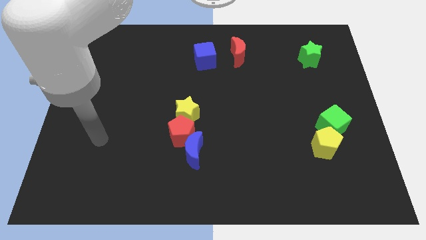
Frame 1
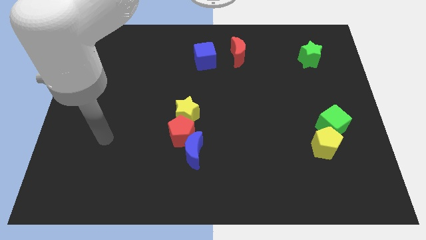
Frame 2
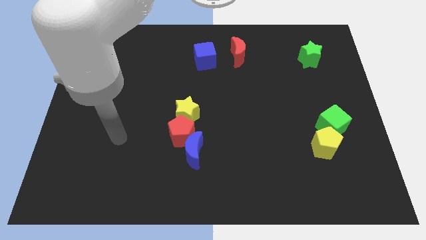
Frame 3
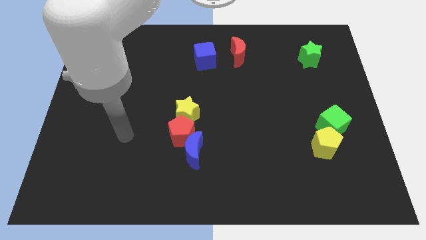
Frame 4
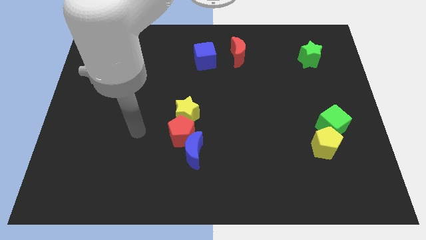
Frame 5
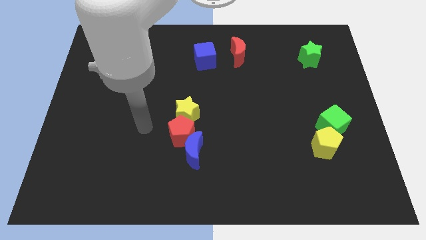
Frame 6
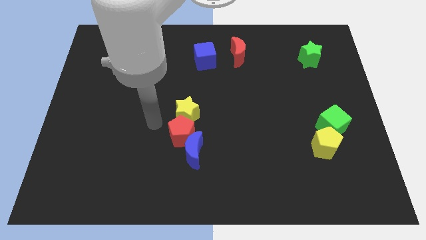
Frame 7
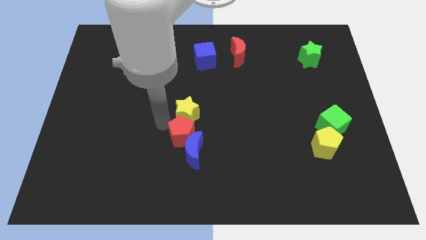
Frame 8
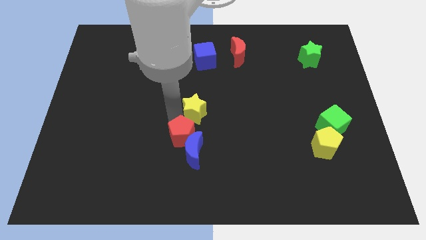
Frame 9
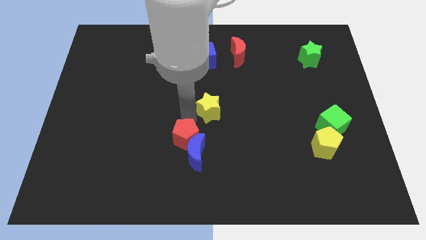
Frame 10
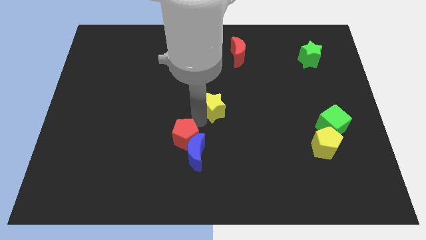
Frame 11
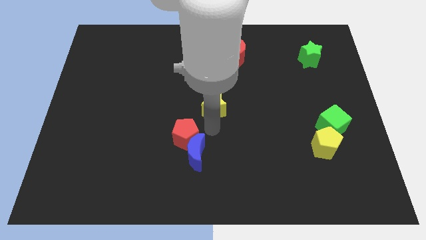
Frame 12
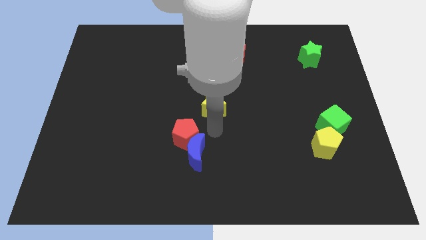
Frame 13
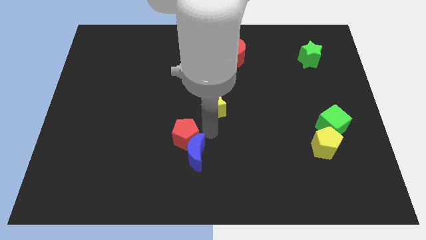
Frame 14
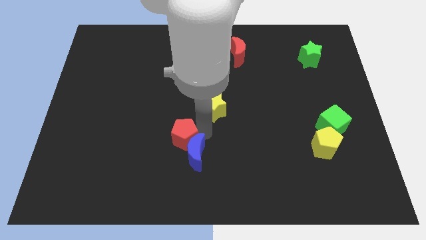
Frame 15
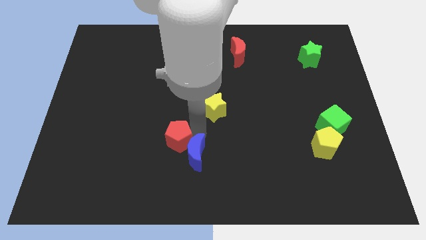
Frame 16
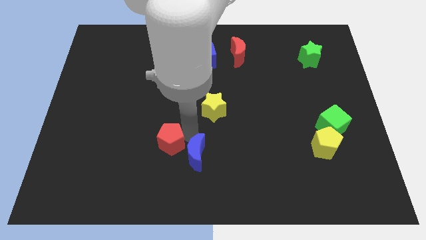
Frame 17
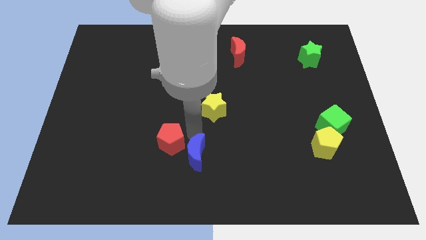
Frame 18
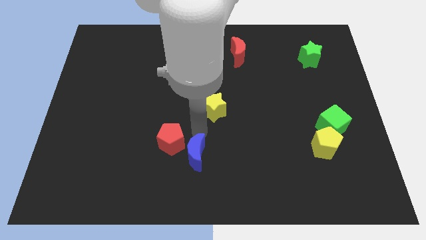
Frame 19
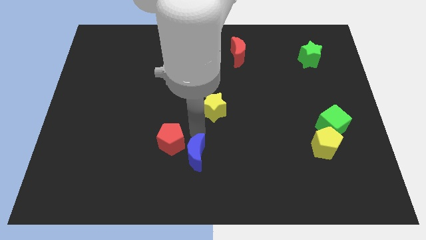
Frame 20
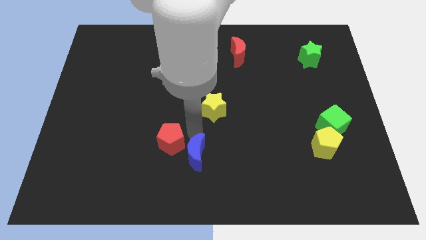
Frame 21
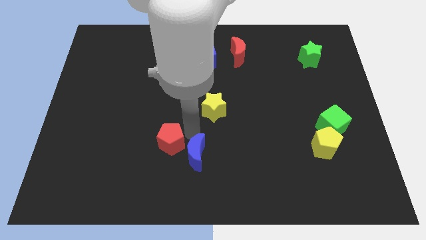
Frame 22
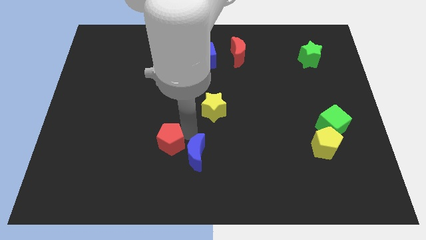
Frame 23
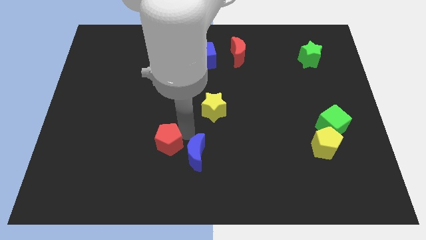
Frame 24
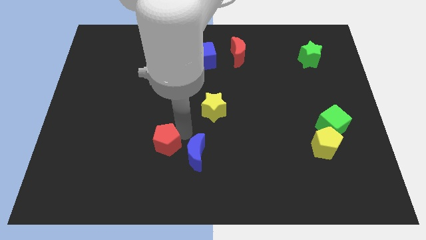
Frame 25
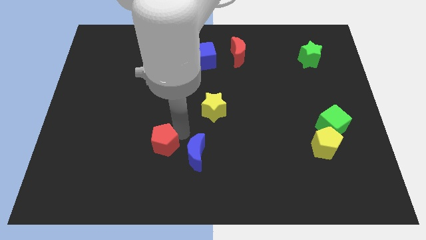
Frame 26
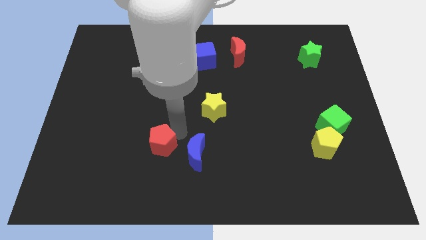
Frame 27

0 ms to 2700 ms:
move the red pentagon away from the yellow star and blue moon

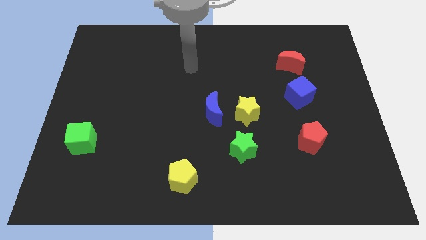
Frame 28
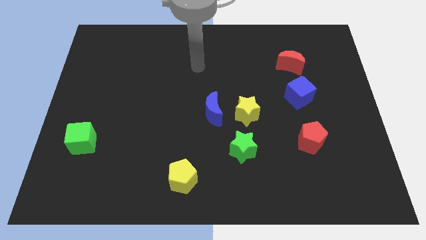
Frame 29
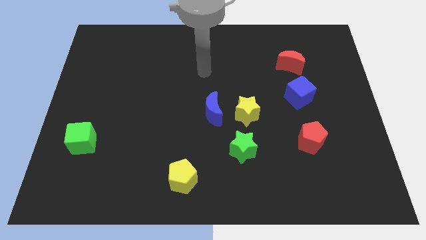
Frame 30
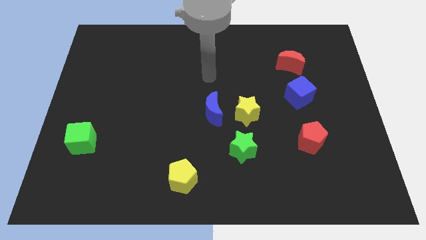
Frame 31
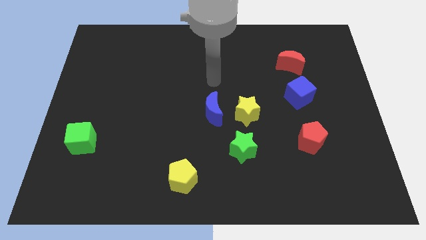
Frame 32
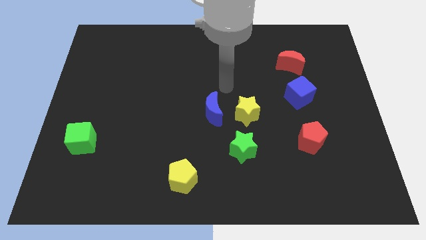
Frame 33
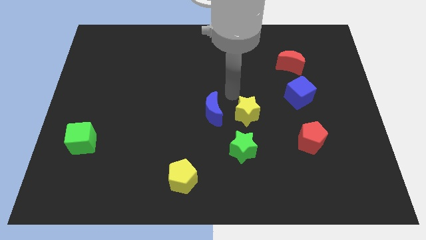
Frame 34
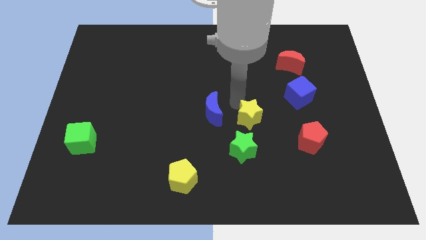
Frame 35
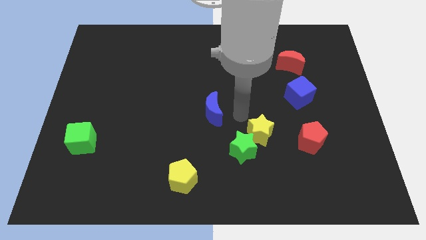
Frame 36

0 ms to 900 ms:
move the blue moon away from the yellow star

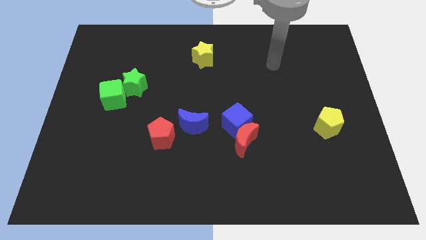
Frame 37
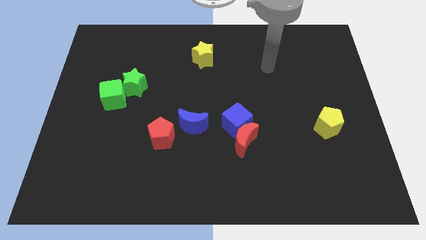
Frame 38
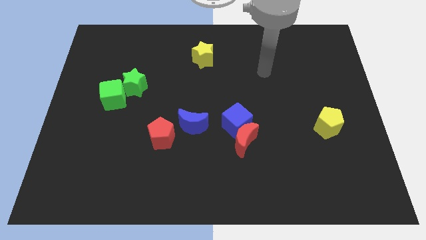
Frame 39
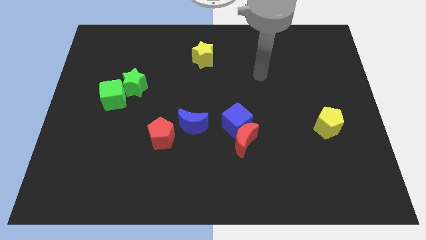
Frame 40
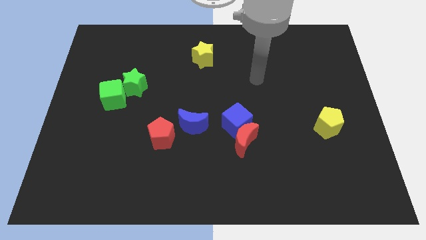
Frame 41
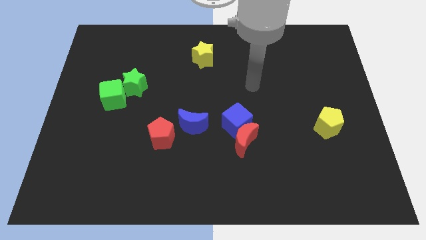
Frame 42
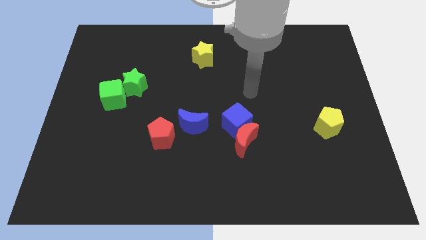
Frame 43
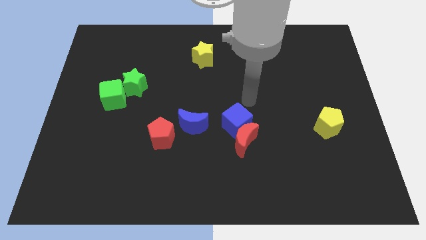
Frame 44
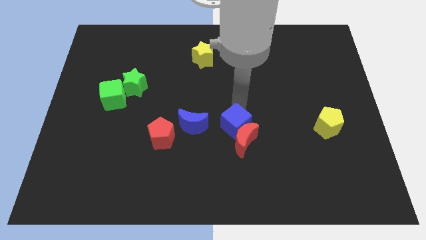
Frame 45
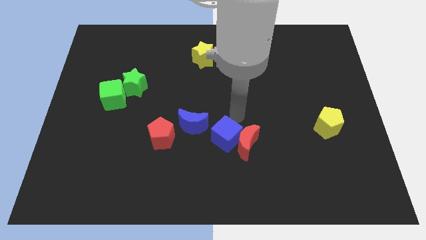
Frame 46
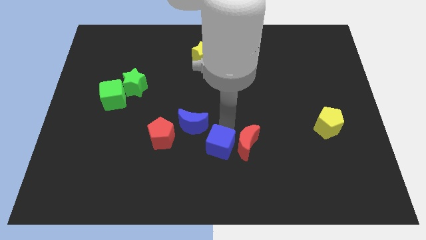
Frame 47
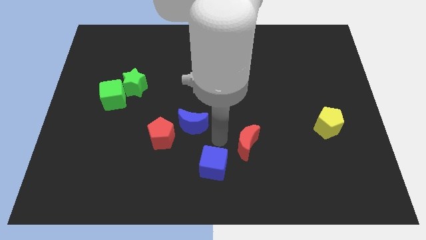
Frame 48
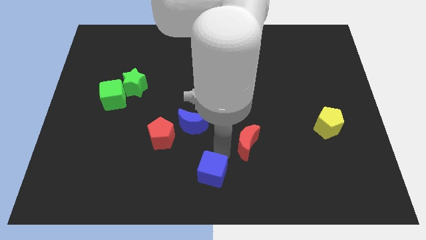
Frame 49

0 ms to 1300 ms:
move the red moon away from the blue cube

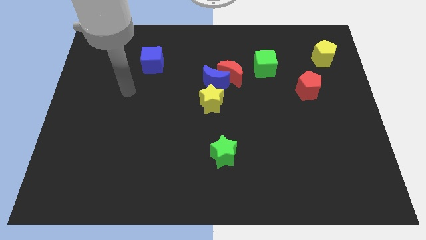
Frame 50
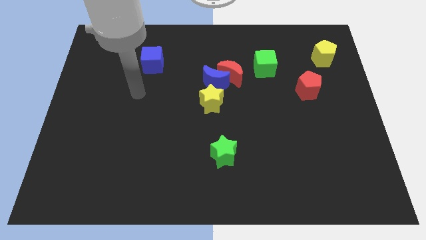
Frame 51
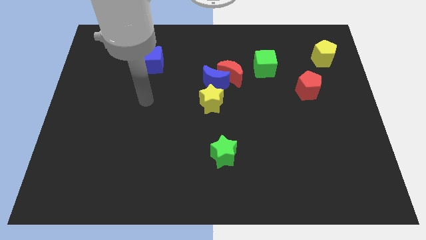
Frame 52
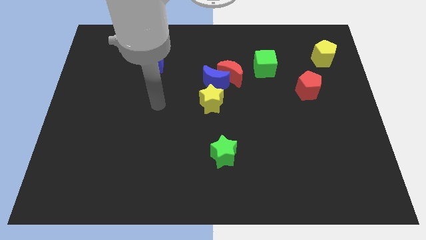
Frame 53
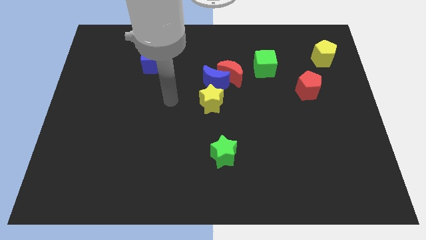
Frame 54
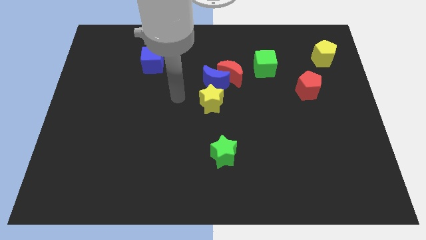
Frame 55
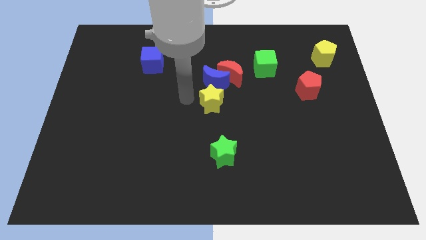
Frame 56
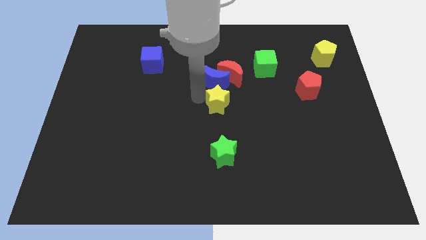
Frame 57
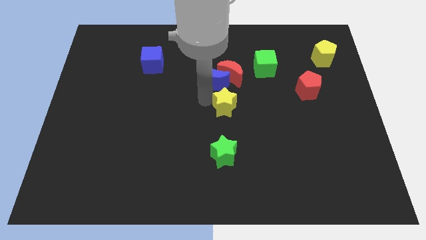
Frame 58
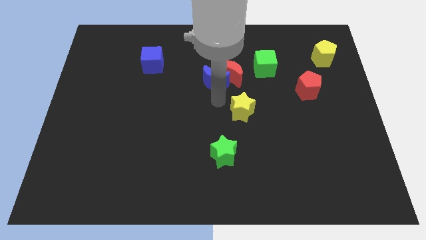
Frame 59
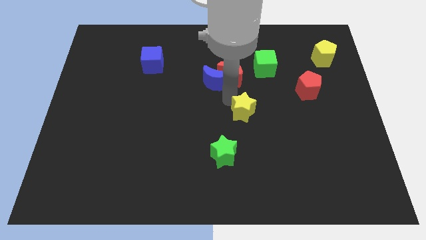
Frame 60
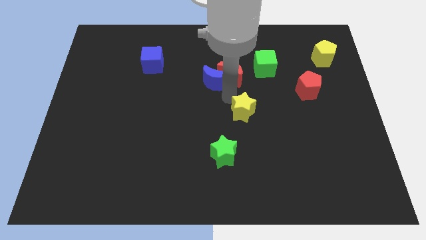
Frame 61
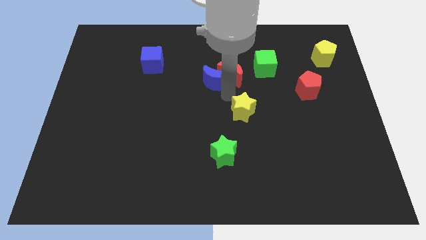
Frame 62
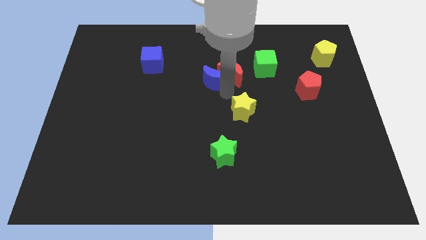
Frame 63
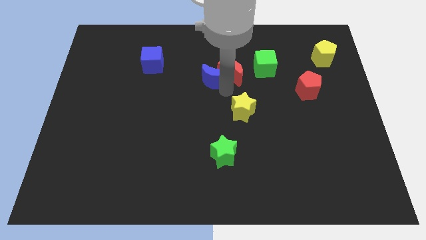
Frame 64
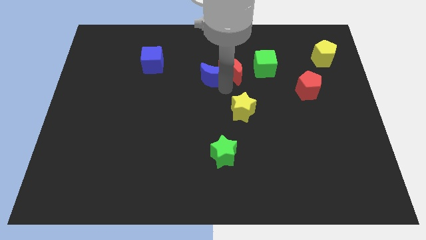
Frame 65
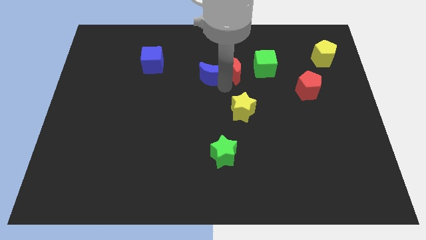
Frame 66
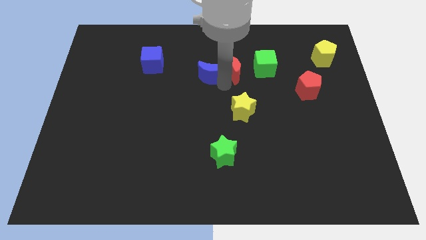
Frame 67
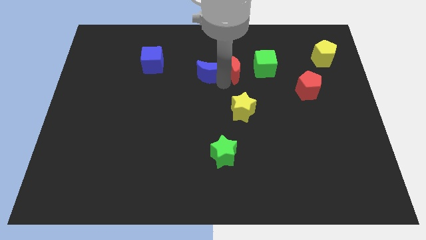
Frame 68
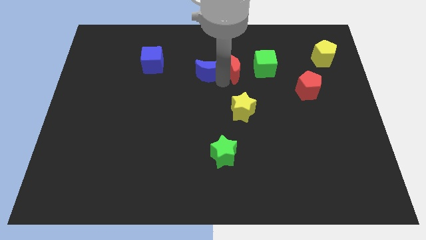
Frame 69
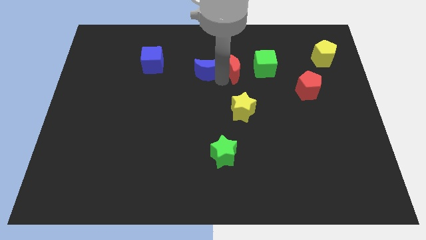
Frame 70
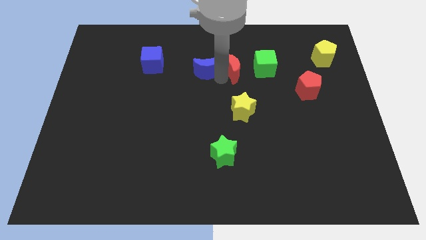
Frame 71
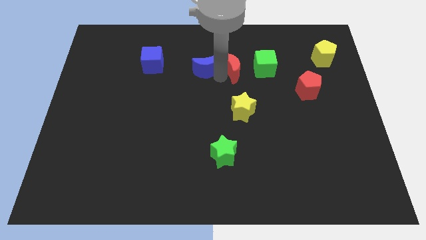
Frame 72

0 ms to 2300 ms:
pull the blue moon apart from the red moon and yellow star

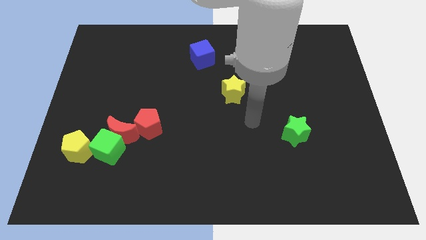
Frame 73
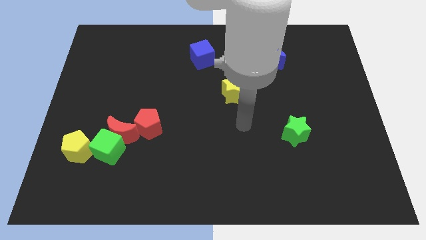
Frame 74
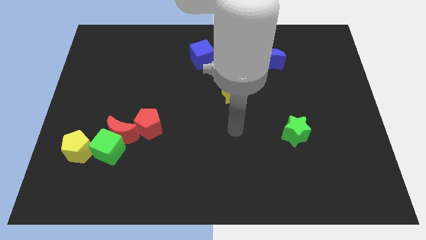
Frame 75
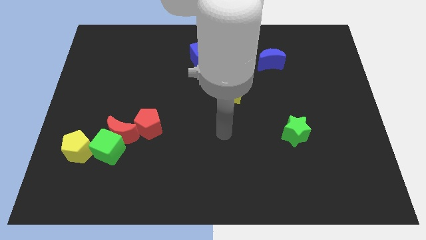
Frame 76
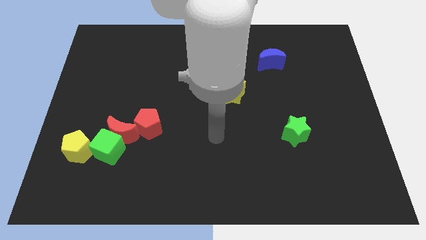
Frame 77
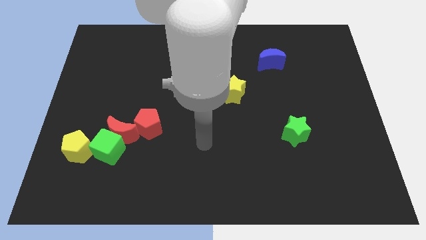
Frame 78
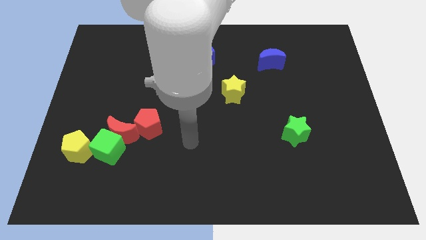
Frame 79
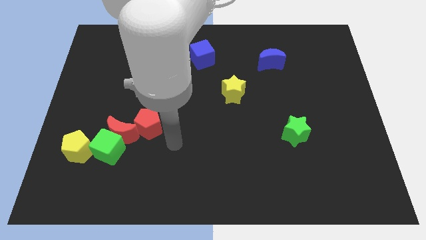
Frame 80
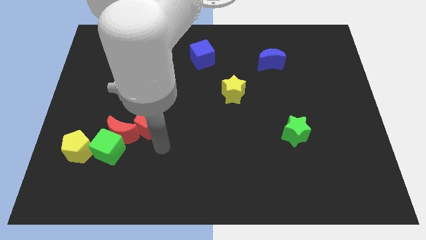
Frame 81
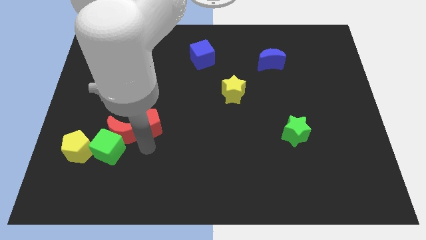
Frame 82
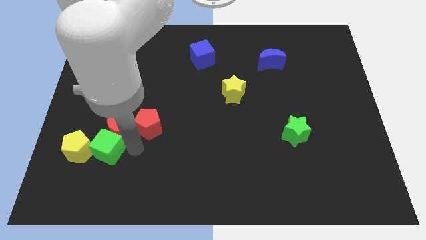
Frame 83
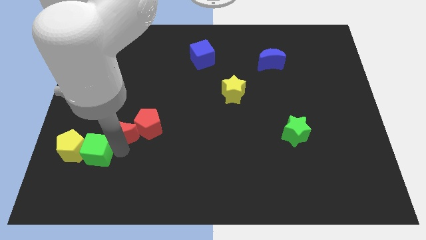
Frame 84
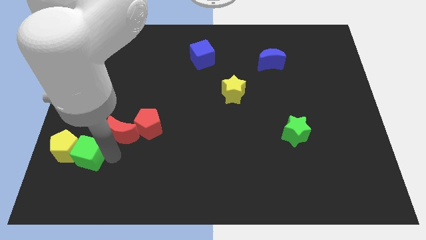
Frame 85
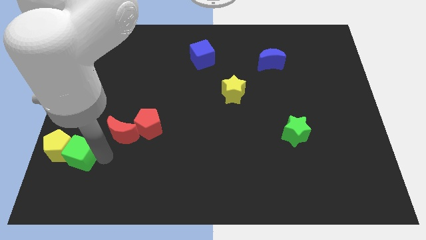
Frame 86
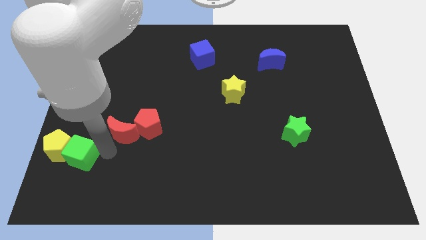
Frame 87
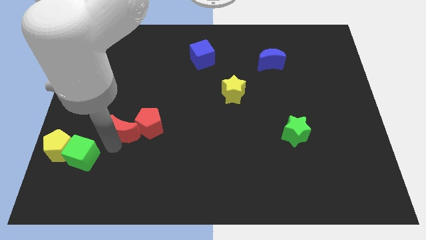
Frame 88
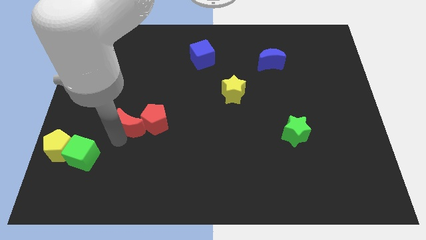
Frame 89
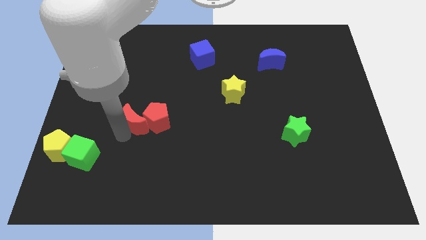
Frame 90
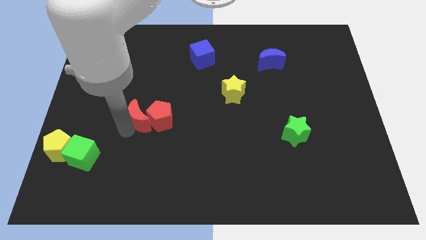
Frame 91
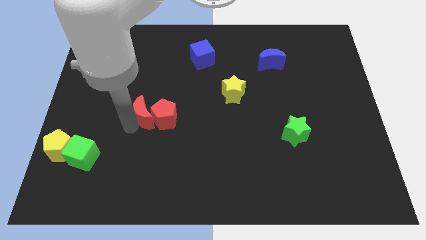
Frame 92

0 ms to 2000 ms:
move the red moon away from the group
